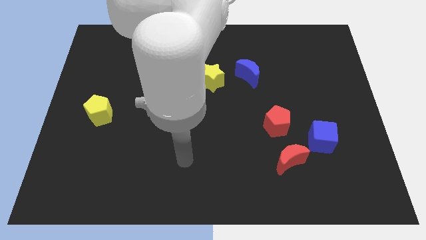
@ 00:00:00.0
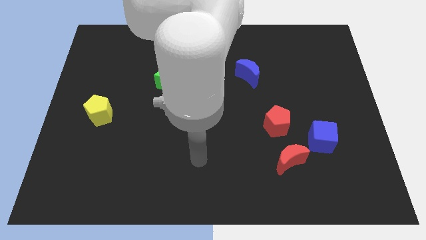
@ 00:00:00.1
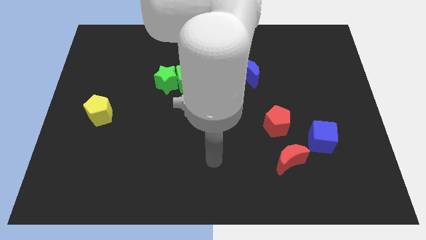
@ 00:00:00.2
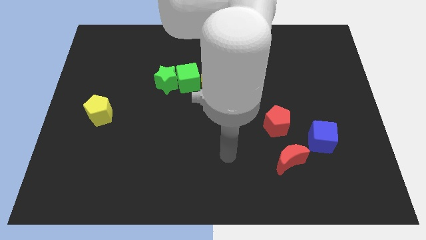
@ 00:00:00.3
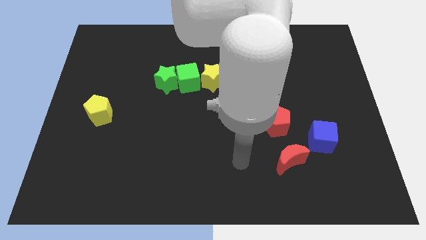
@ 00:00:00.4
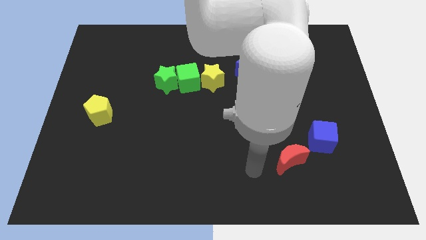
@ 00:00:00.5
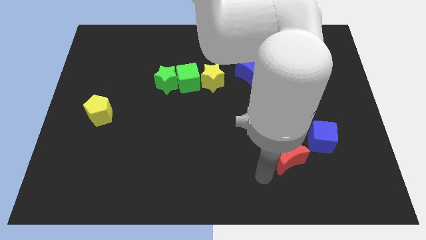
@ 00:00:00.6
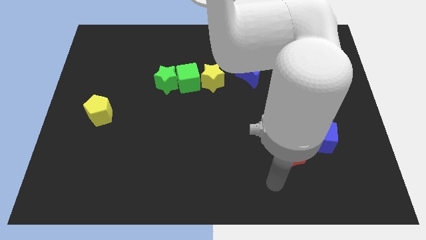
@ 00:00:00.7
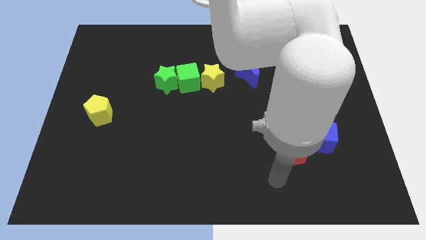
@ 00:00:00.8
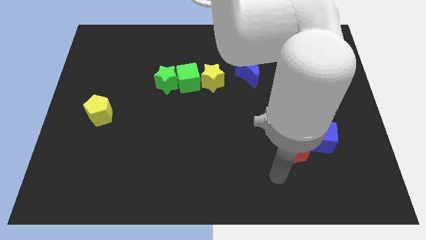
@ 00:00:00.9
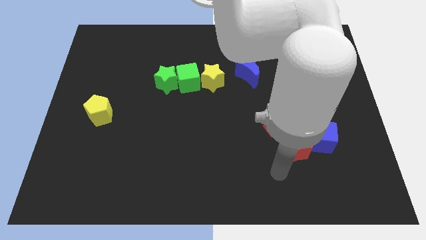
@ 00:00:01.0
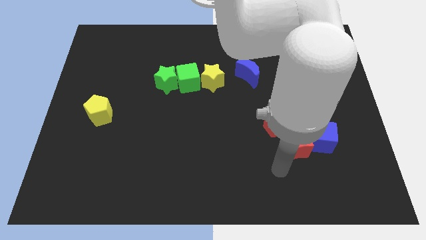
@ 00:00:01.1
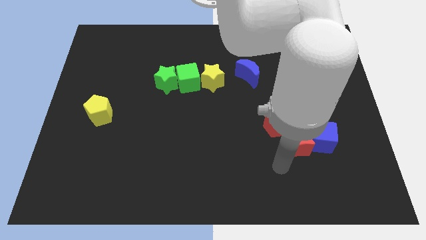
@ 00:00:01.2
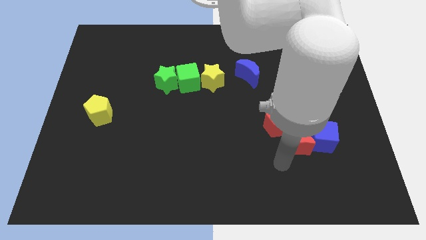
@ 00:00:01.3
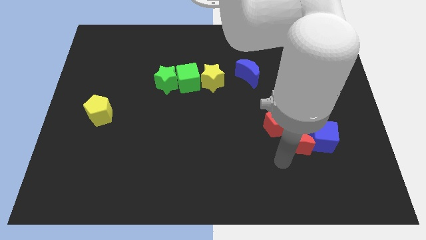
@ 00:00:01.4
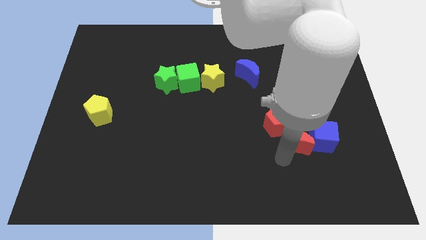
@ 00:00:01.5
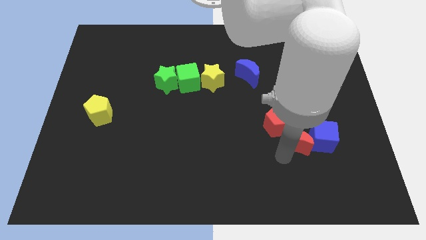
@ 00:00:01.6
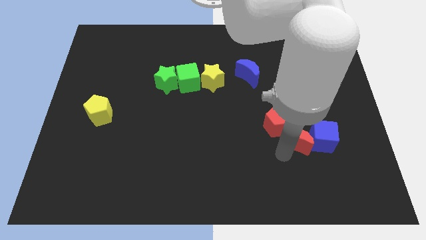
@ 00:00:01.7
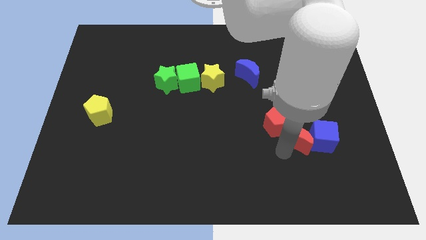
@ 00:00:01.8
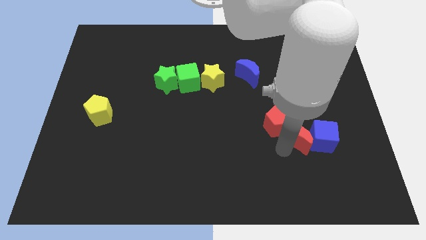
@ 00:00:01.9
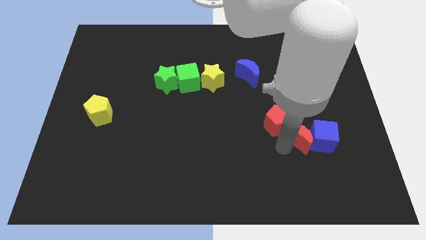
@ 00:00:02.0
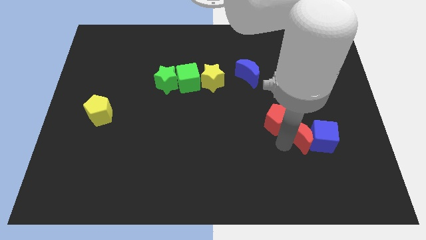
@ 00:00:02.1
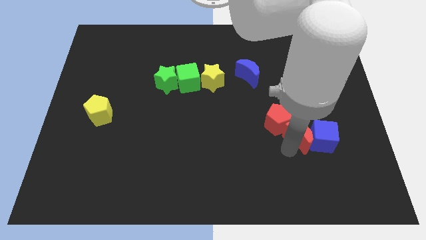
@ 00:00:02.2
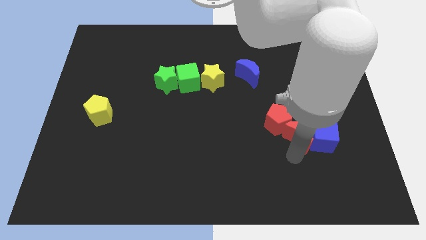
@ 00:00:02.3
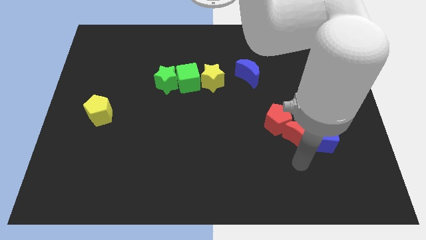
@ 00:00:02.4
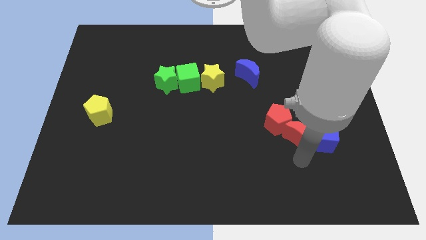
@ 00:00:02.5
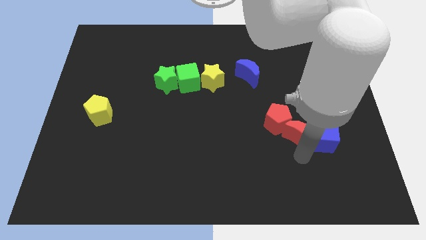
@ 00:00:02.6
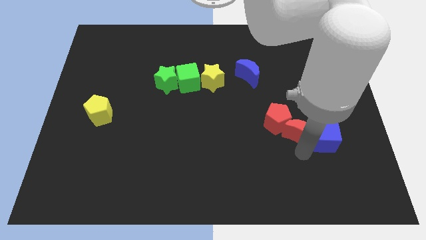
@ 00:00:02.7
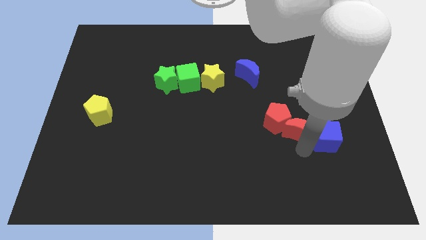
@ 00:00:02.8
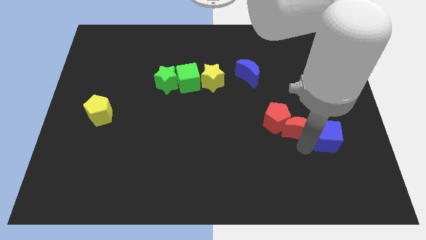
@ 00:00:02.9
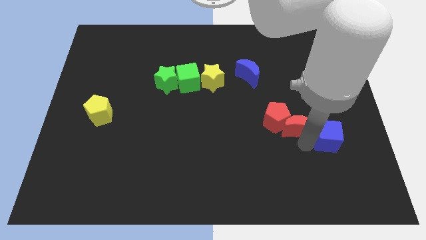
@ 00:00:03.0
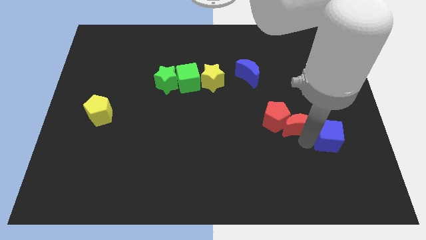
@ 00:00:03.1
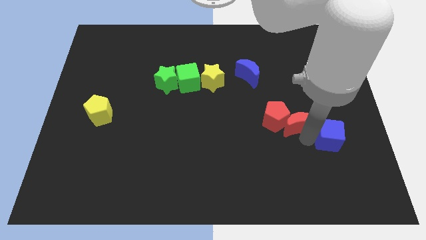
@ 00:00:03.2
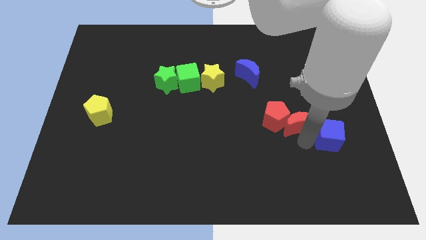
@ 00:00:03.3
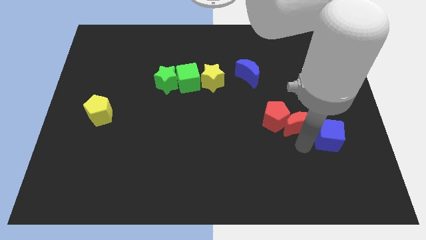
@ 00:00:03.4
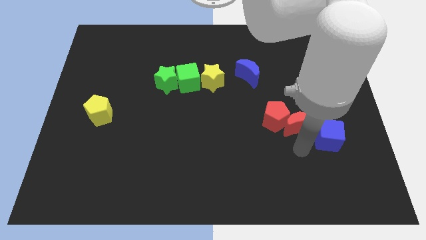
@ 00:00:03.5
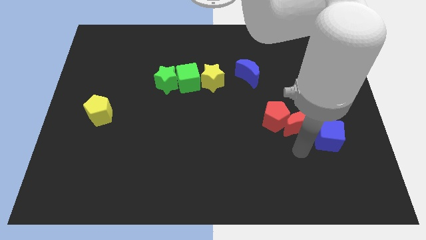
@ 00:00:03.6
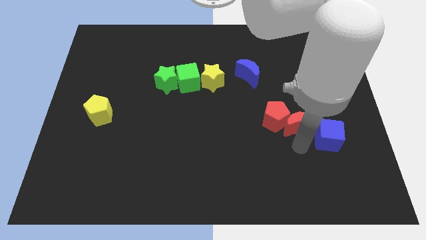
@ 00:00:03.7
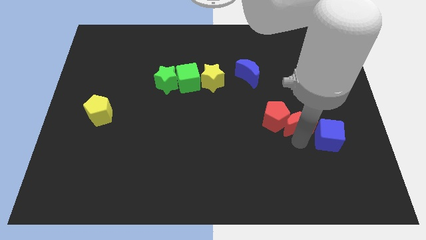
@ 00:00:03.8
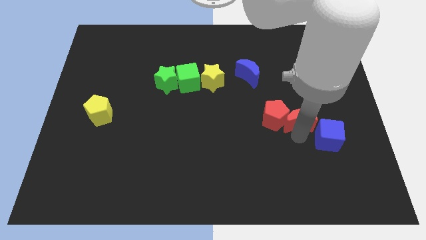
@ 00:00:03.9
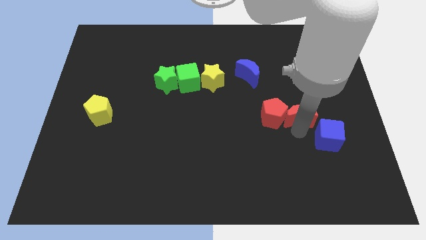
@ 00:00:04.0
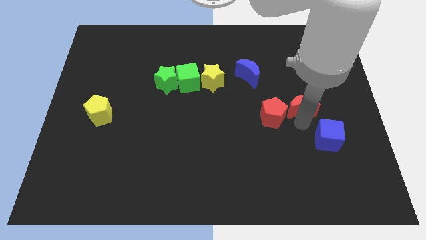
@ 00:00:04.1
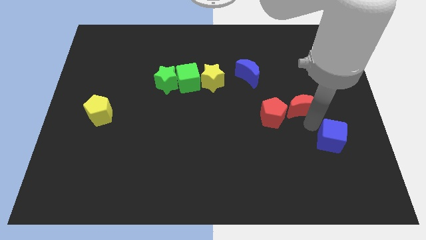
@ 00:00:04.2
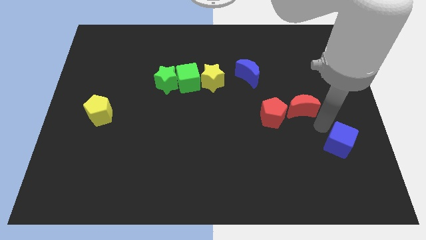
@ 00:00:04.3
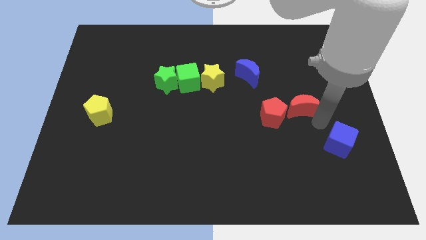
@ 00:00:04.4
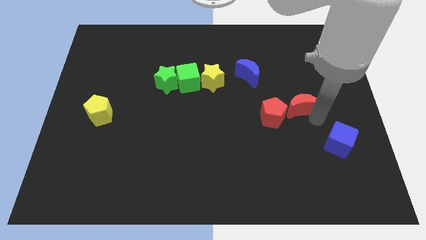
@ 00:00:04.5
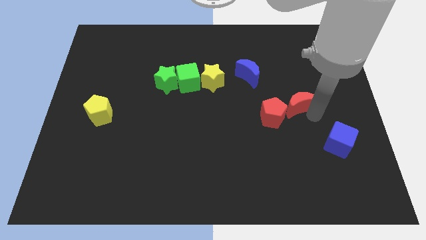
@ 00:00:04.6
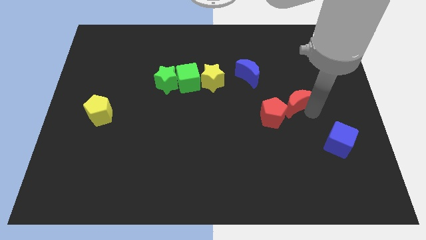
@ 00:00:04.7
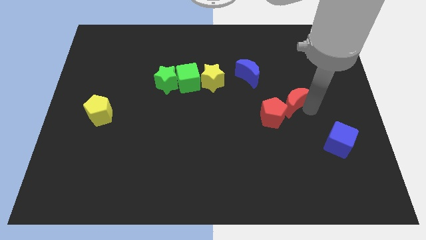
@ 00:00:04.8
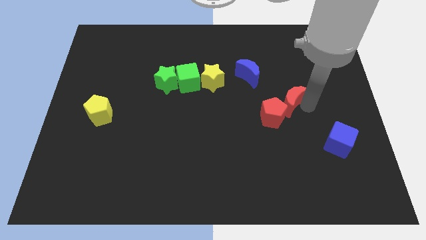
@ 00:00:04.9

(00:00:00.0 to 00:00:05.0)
slide the red moon above the red pentagon

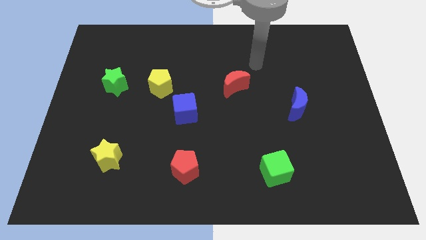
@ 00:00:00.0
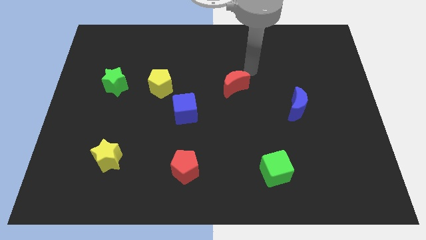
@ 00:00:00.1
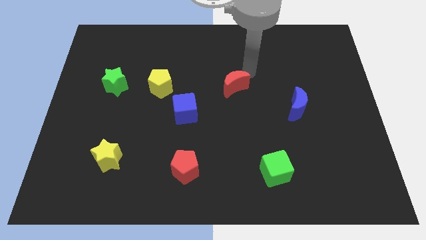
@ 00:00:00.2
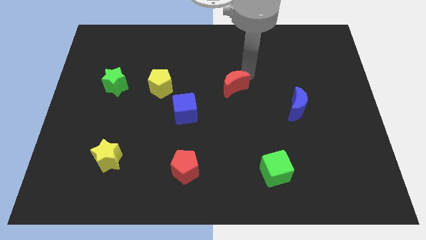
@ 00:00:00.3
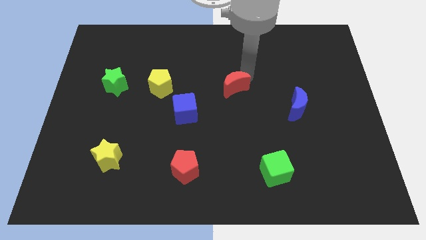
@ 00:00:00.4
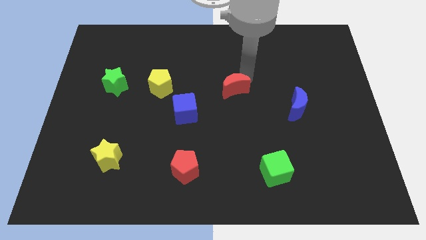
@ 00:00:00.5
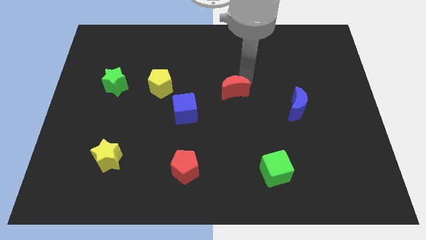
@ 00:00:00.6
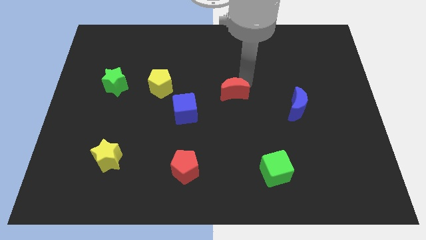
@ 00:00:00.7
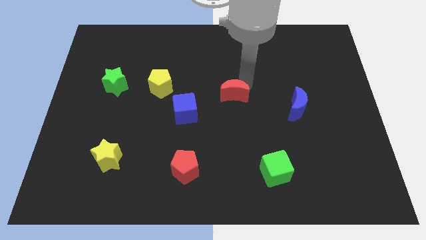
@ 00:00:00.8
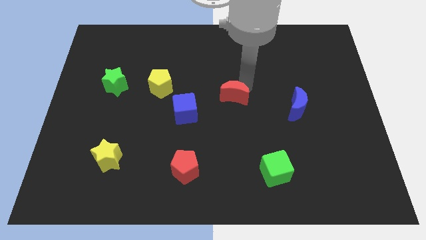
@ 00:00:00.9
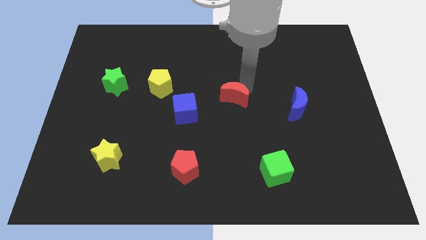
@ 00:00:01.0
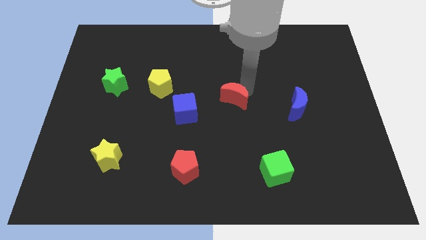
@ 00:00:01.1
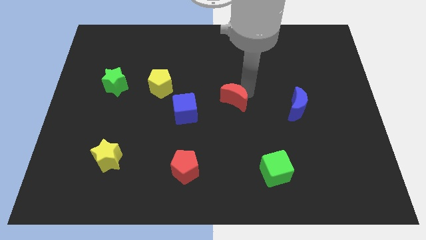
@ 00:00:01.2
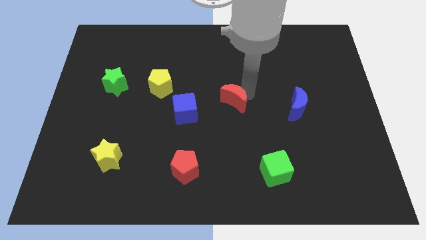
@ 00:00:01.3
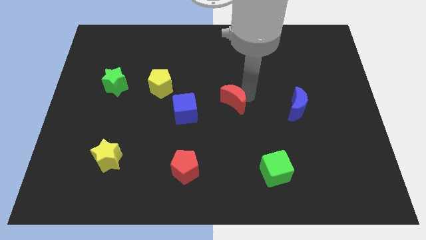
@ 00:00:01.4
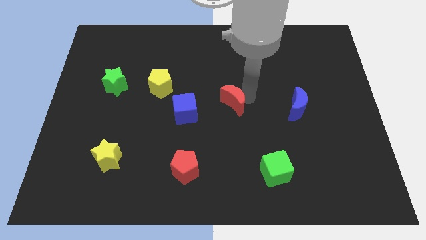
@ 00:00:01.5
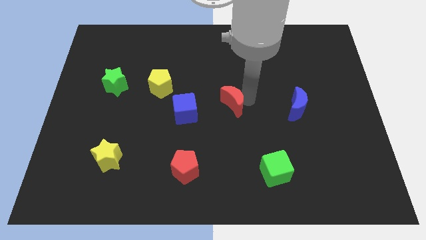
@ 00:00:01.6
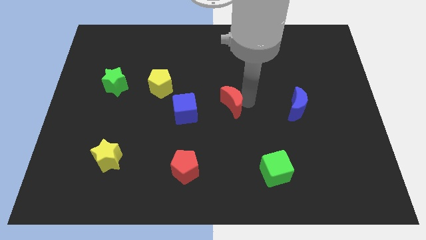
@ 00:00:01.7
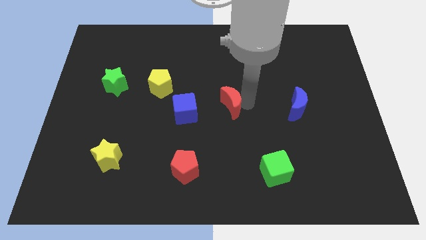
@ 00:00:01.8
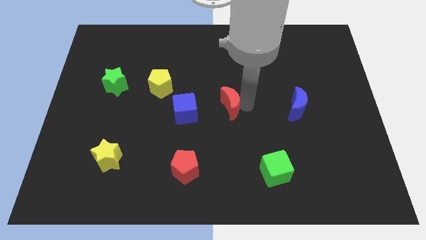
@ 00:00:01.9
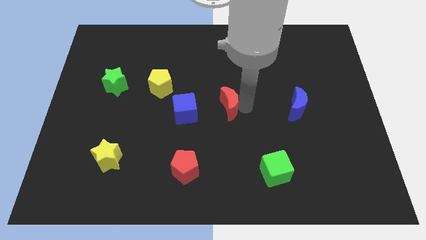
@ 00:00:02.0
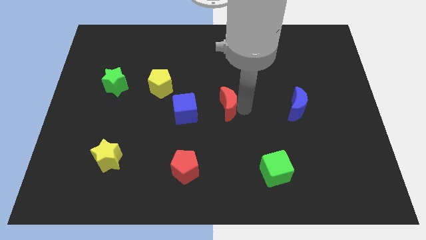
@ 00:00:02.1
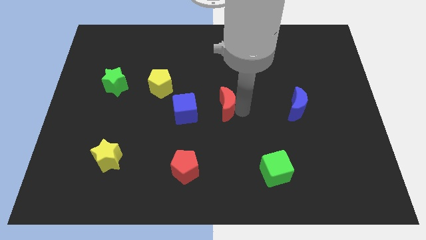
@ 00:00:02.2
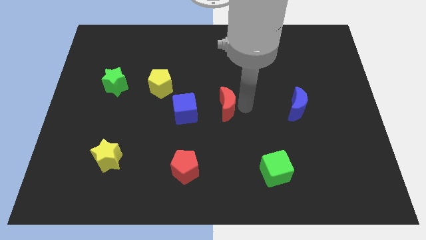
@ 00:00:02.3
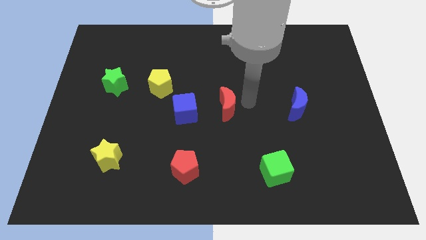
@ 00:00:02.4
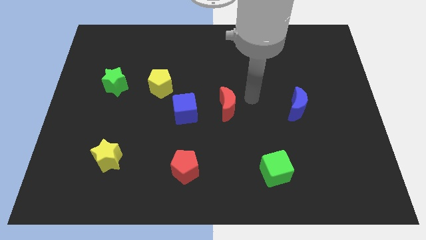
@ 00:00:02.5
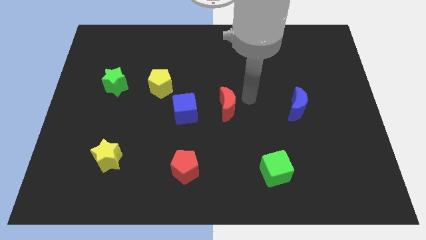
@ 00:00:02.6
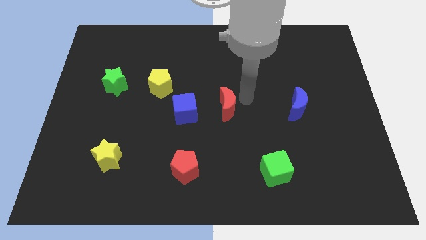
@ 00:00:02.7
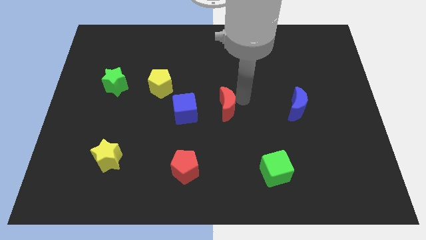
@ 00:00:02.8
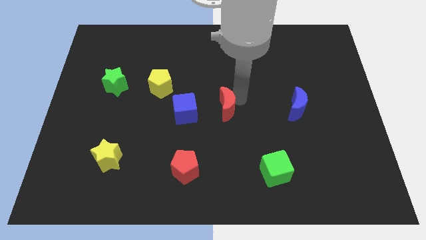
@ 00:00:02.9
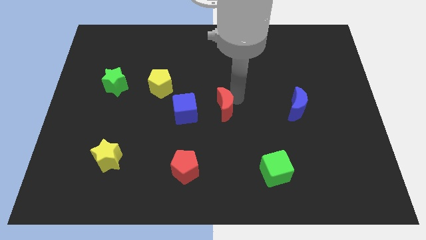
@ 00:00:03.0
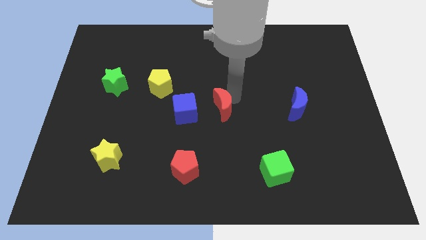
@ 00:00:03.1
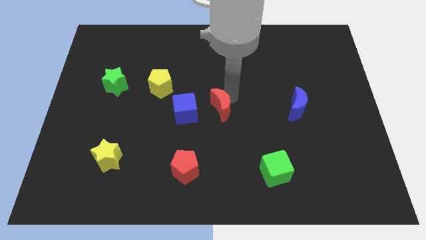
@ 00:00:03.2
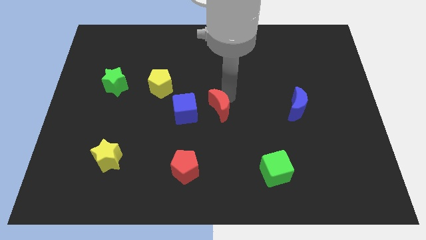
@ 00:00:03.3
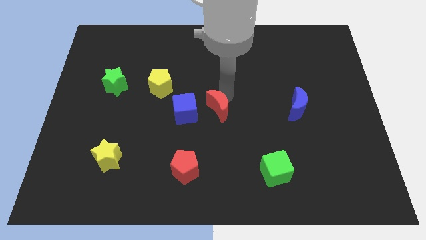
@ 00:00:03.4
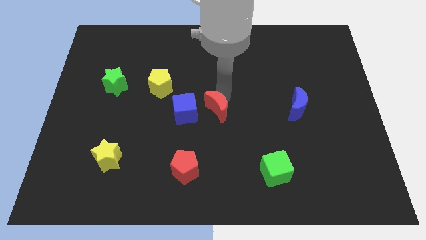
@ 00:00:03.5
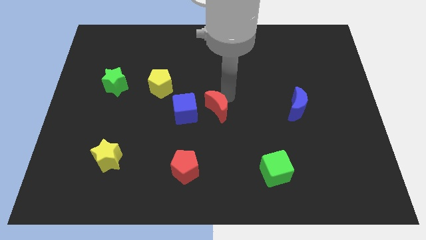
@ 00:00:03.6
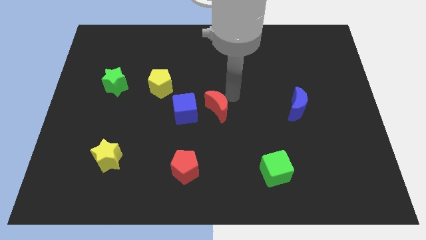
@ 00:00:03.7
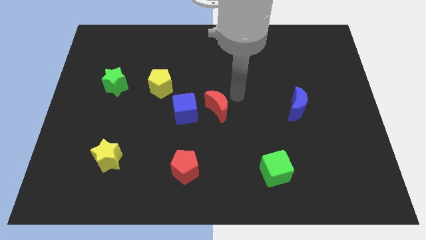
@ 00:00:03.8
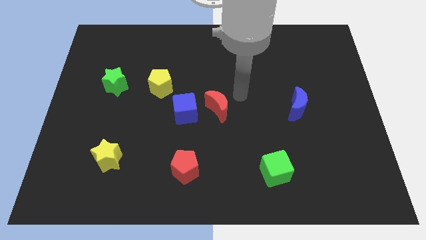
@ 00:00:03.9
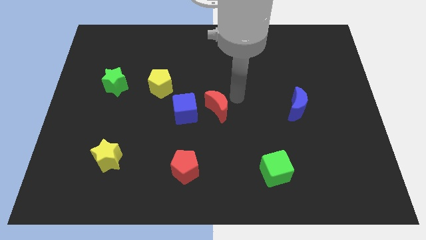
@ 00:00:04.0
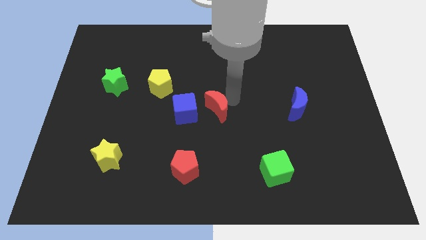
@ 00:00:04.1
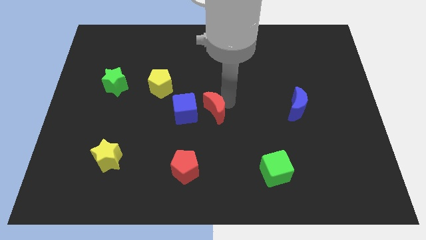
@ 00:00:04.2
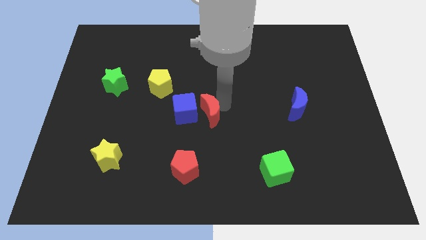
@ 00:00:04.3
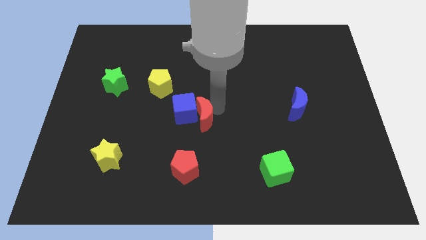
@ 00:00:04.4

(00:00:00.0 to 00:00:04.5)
put the red moon to the top of the red pentagon
